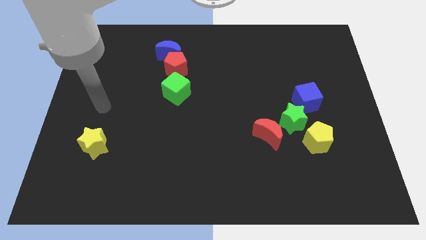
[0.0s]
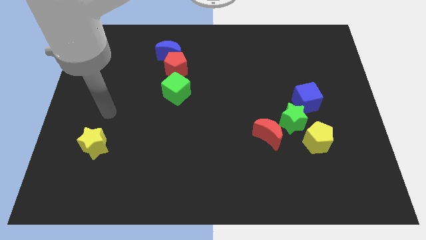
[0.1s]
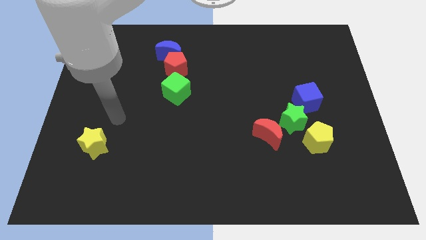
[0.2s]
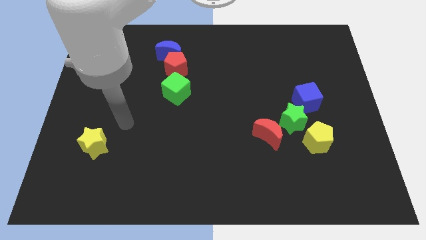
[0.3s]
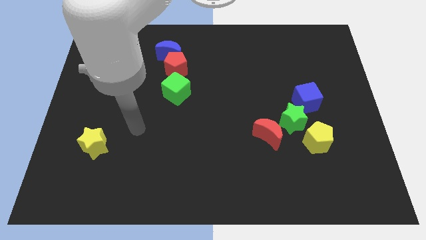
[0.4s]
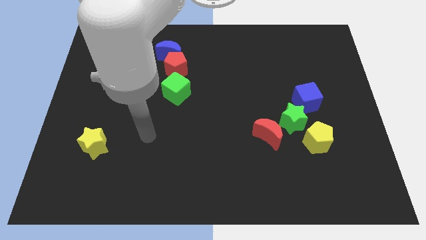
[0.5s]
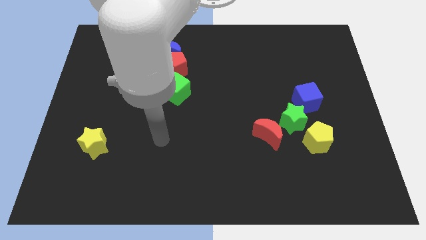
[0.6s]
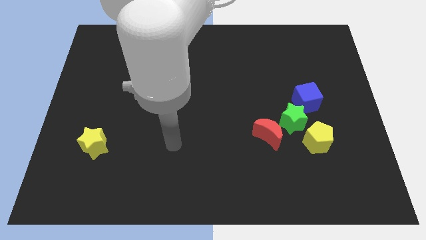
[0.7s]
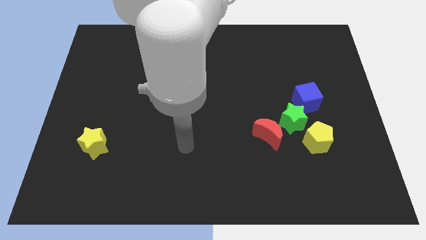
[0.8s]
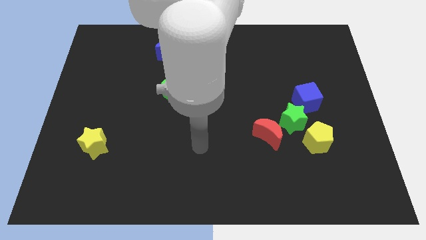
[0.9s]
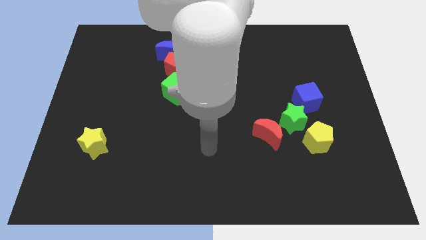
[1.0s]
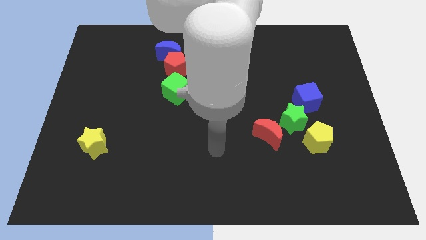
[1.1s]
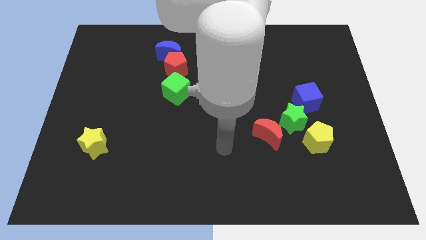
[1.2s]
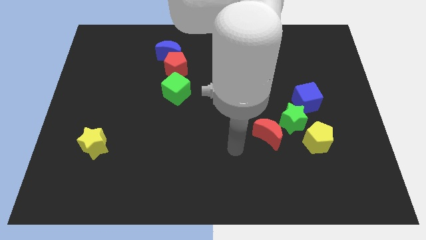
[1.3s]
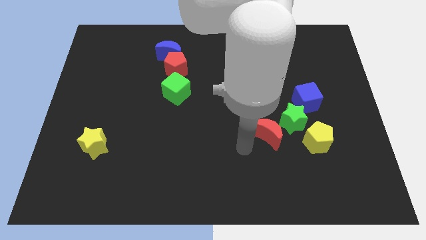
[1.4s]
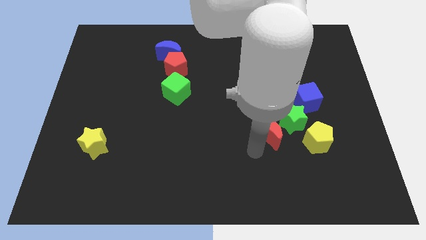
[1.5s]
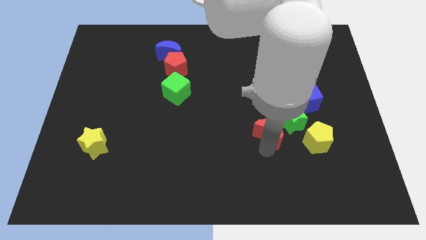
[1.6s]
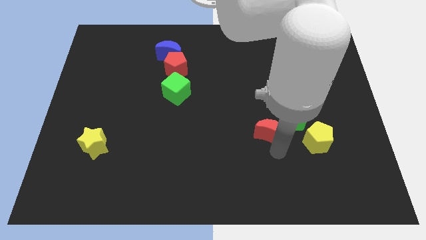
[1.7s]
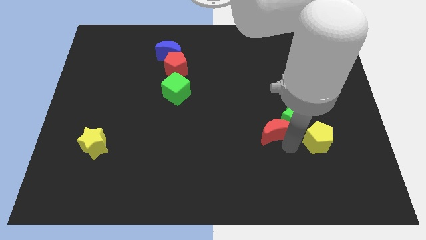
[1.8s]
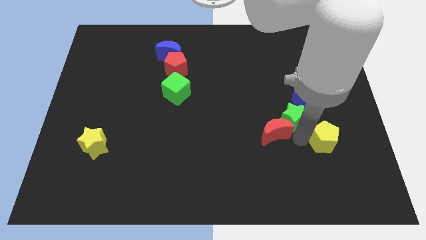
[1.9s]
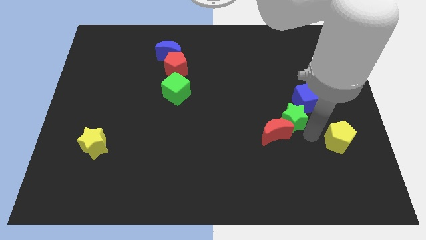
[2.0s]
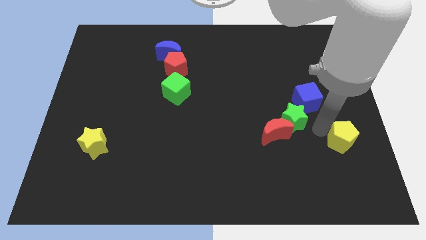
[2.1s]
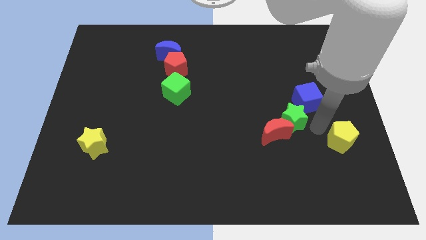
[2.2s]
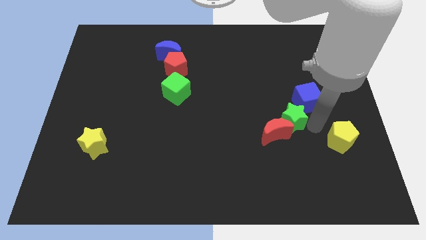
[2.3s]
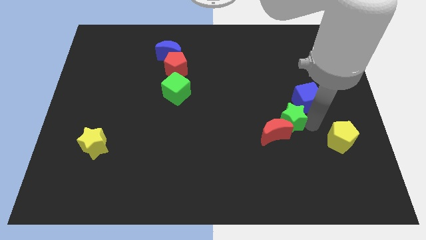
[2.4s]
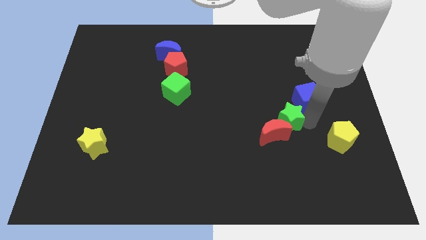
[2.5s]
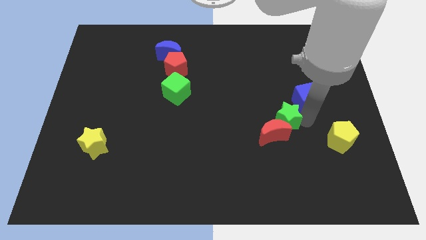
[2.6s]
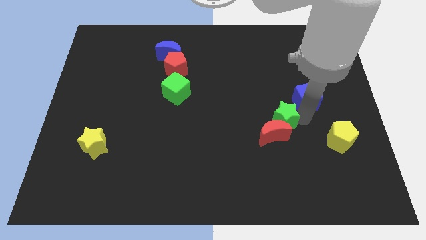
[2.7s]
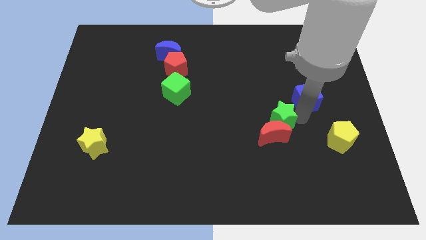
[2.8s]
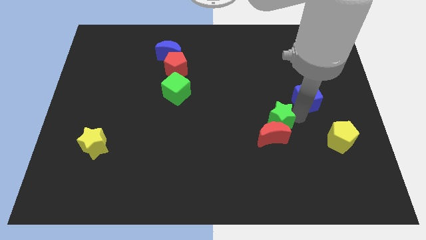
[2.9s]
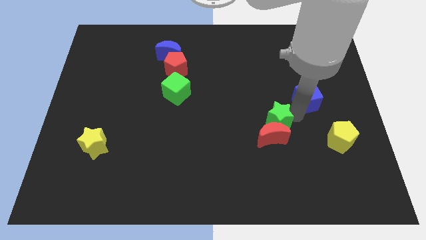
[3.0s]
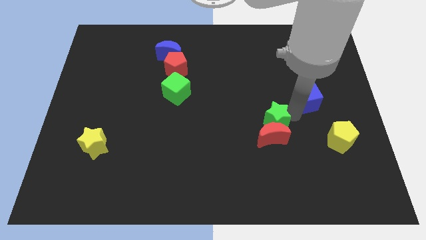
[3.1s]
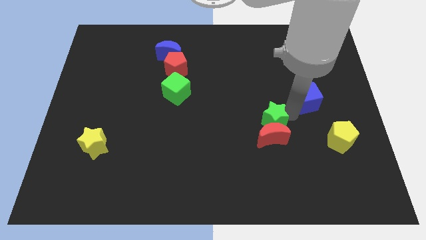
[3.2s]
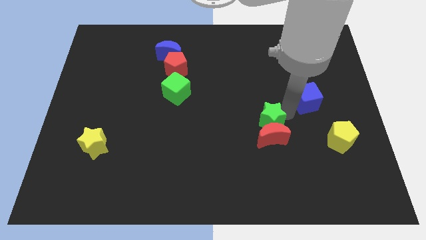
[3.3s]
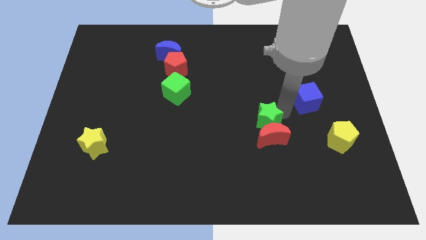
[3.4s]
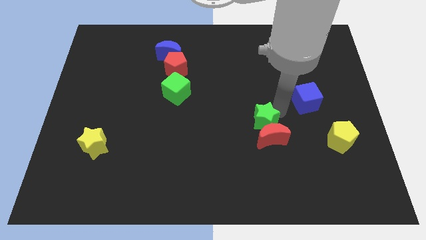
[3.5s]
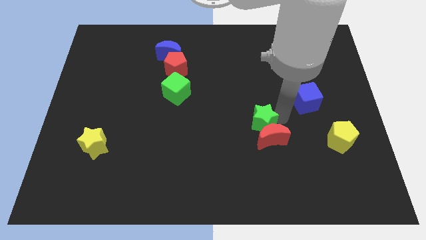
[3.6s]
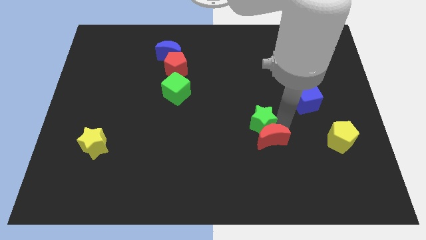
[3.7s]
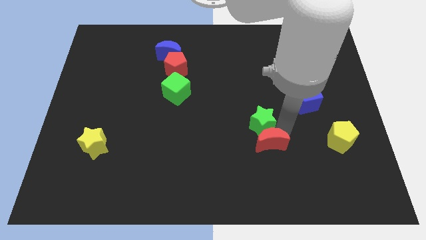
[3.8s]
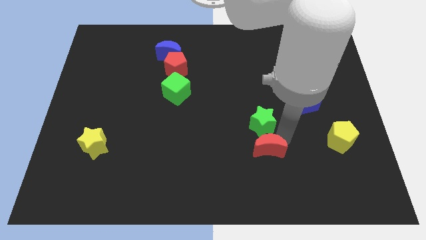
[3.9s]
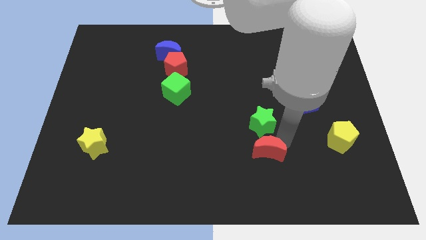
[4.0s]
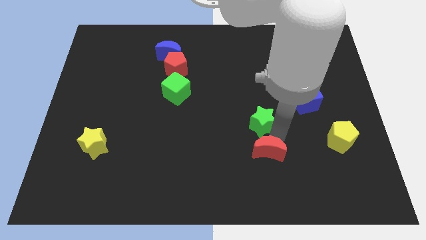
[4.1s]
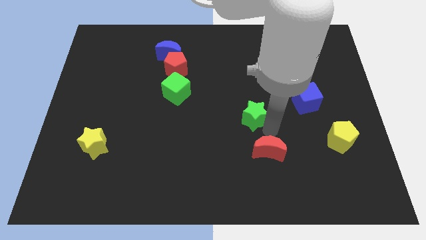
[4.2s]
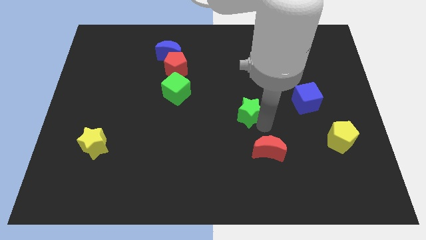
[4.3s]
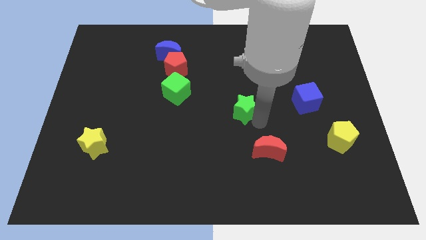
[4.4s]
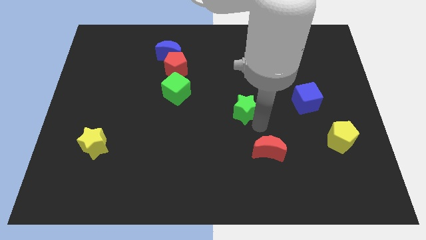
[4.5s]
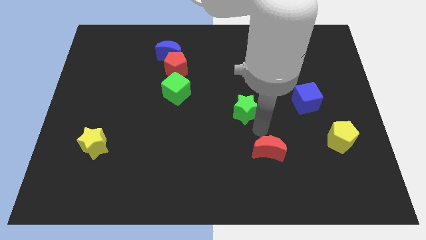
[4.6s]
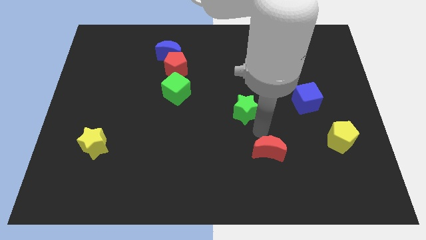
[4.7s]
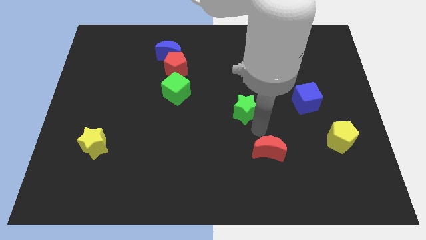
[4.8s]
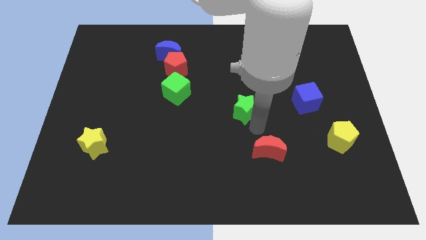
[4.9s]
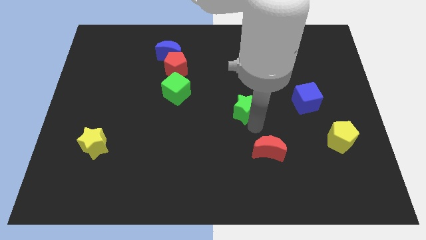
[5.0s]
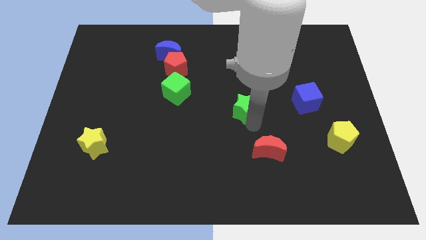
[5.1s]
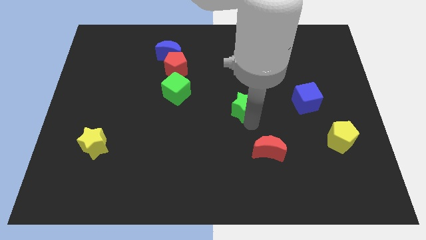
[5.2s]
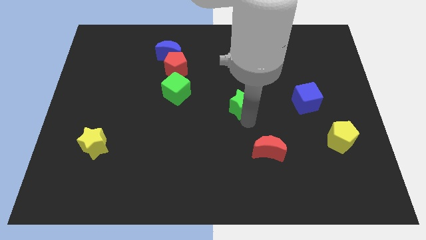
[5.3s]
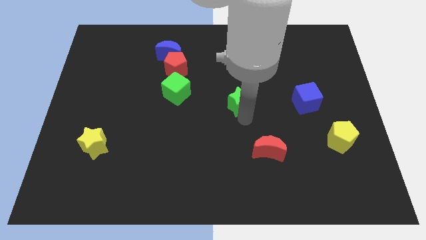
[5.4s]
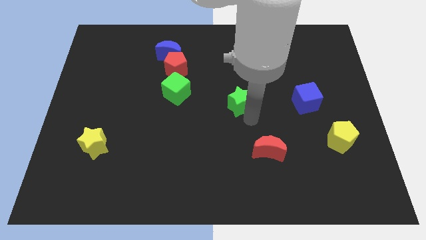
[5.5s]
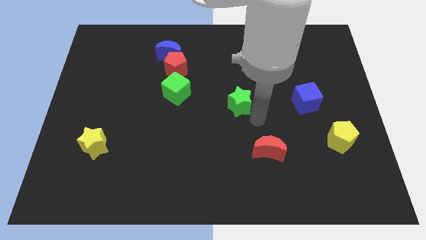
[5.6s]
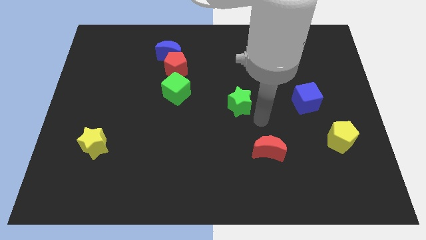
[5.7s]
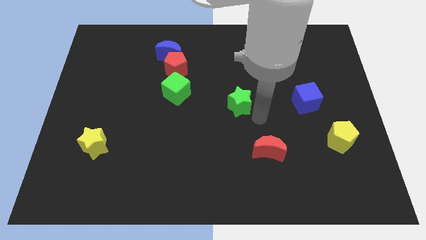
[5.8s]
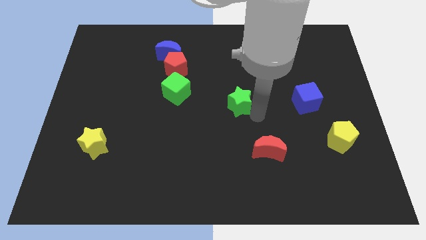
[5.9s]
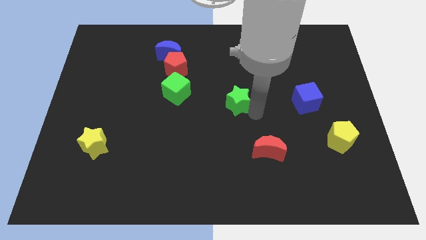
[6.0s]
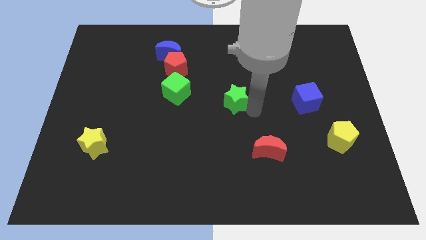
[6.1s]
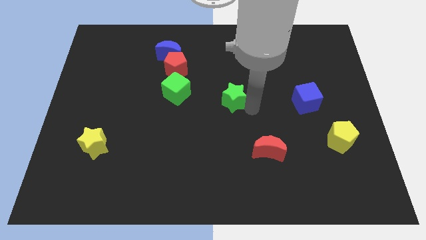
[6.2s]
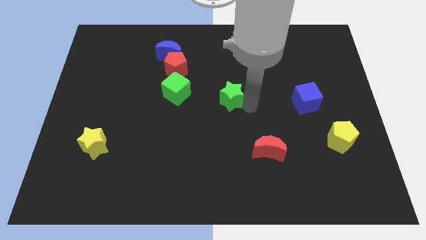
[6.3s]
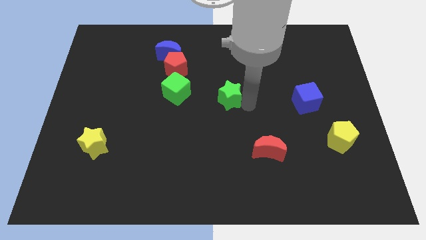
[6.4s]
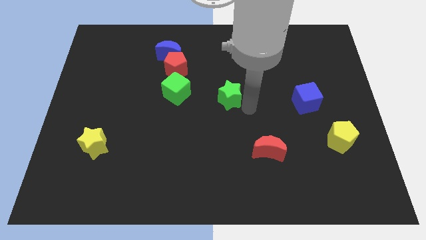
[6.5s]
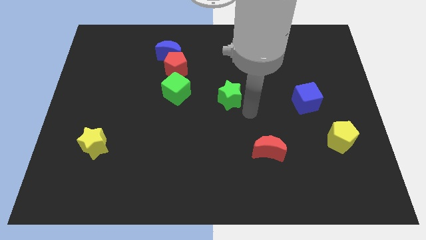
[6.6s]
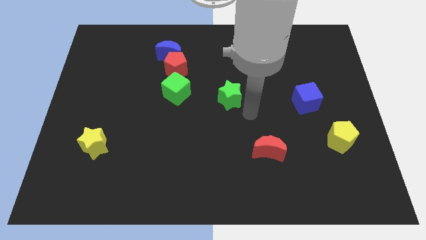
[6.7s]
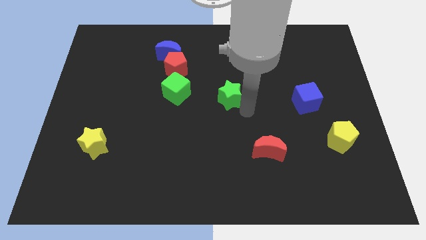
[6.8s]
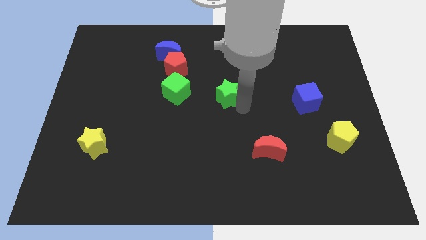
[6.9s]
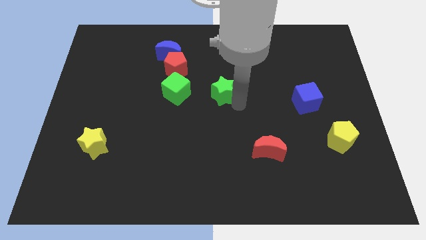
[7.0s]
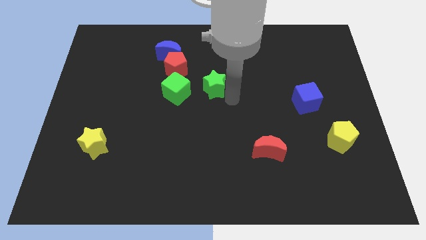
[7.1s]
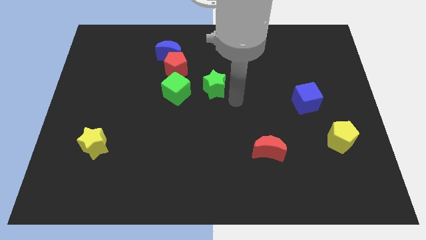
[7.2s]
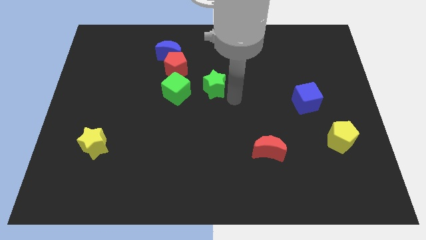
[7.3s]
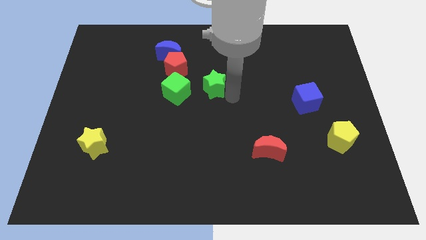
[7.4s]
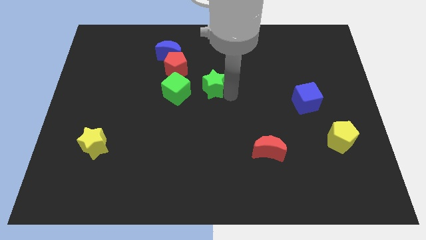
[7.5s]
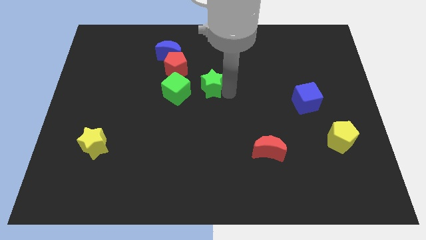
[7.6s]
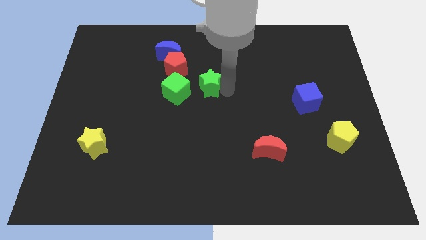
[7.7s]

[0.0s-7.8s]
put the green star to the top right of the green cube

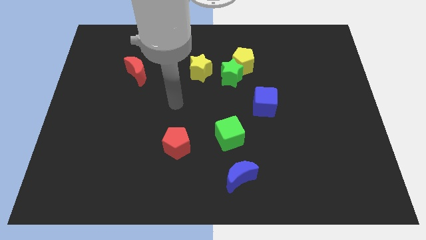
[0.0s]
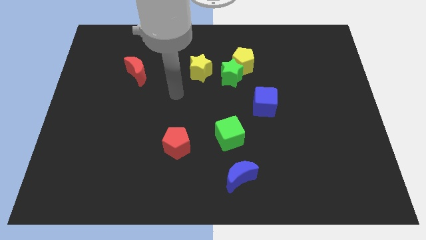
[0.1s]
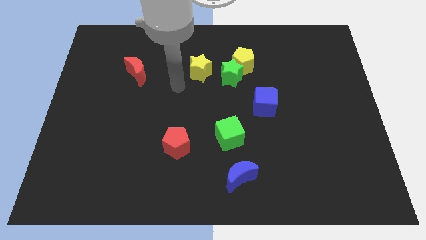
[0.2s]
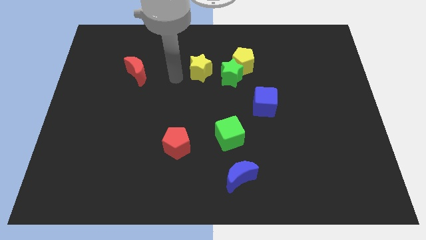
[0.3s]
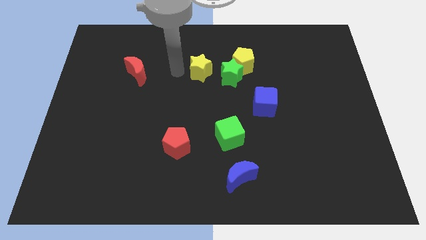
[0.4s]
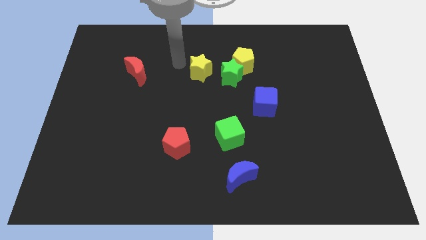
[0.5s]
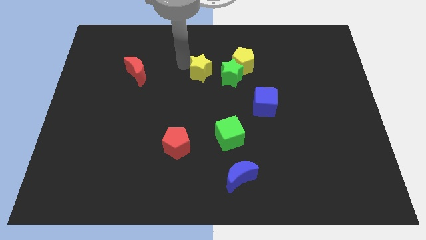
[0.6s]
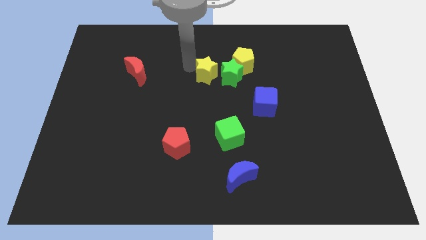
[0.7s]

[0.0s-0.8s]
move the yellow star diagonally down and to the left of the yellow pentagon
